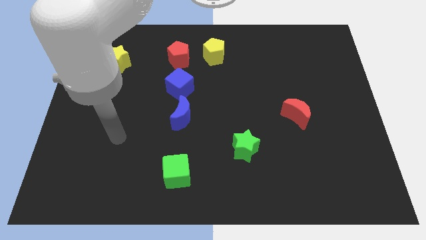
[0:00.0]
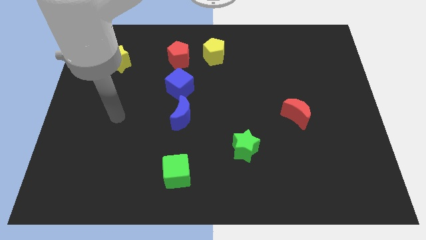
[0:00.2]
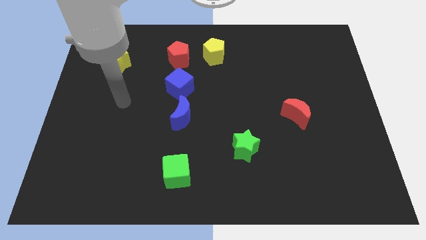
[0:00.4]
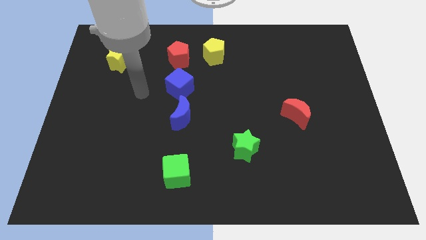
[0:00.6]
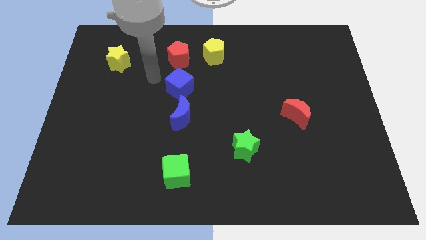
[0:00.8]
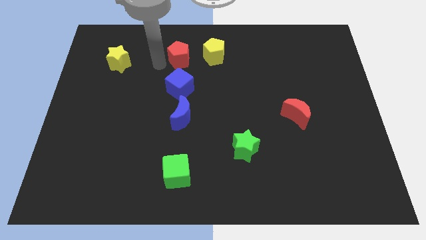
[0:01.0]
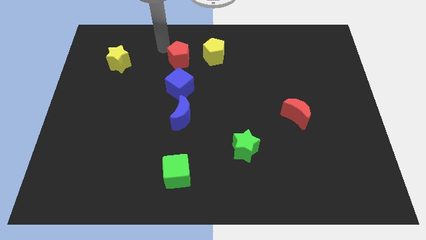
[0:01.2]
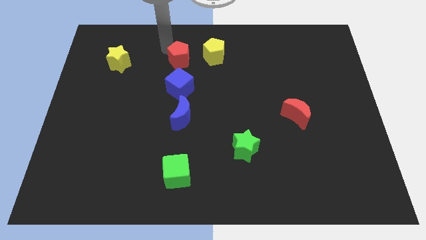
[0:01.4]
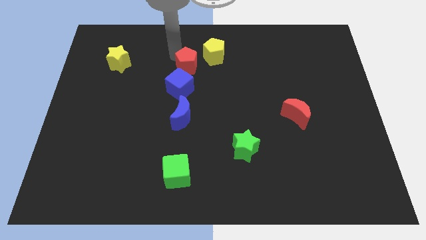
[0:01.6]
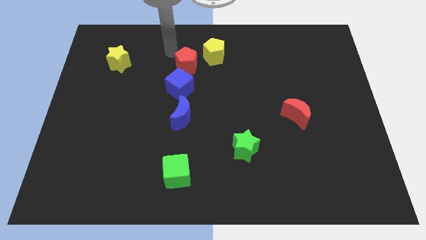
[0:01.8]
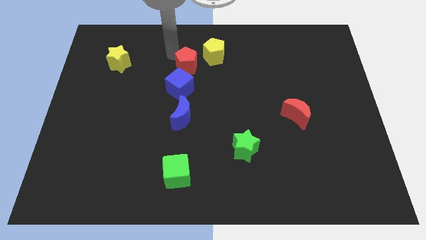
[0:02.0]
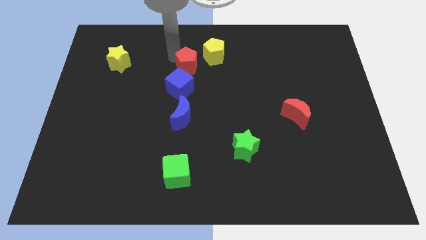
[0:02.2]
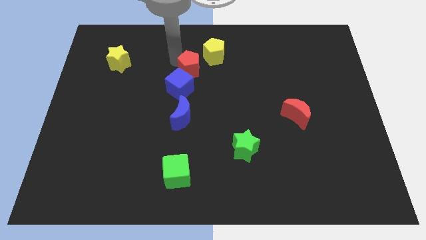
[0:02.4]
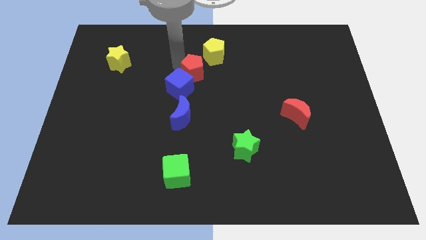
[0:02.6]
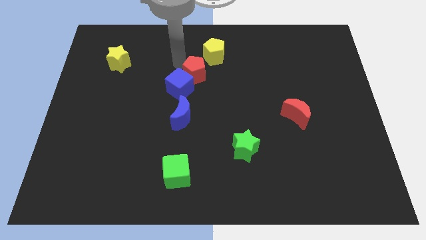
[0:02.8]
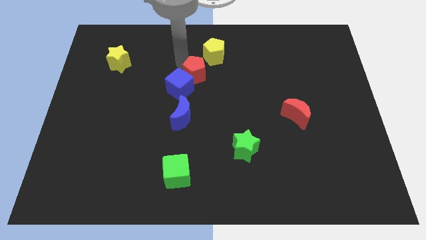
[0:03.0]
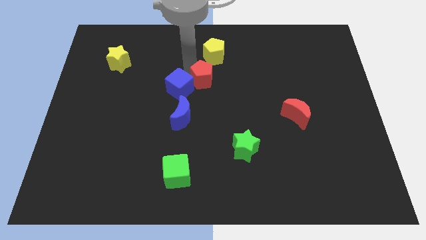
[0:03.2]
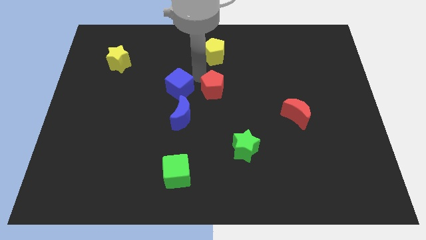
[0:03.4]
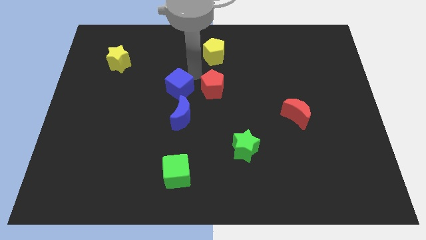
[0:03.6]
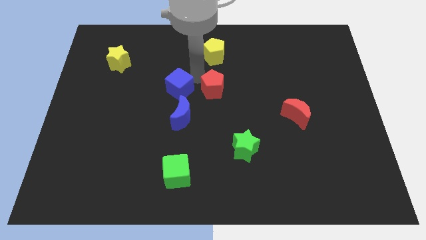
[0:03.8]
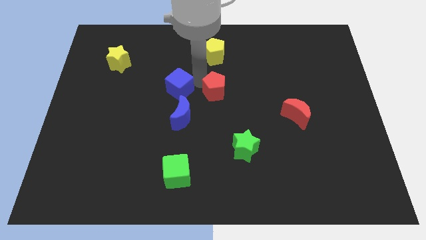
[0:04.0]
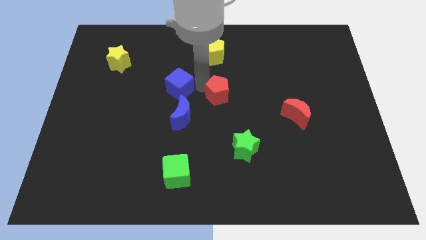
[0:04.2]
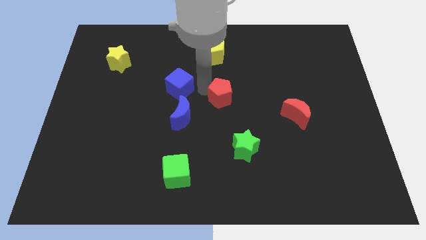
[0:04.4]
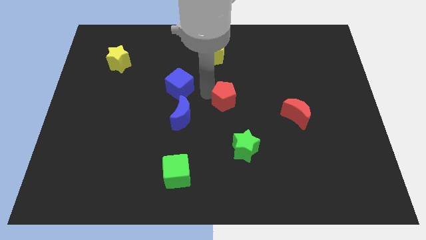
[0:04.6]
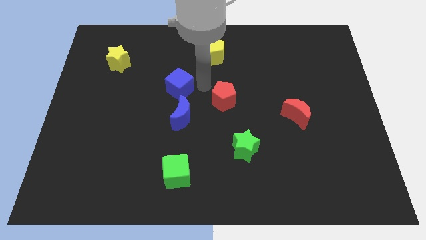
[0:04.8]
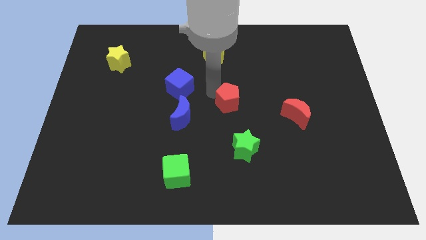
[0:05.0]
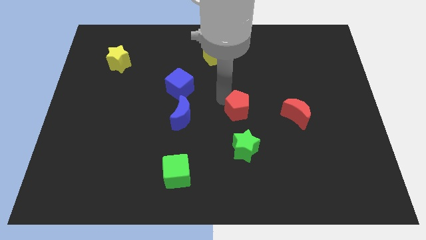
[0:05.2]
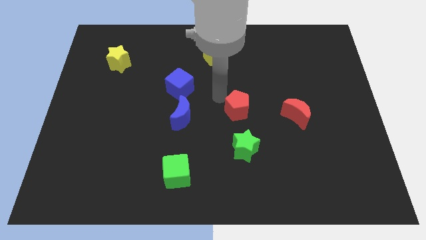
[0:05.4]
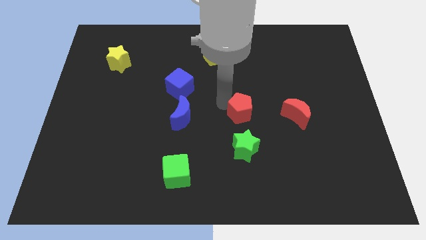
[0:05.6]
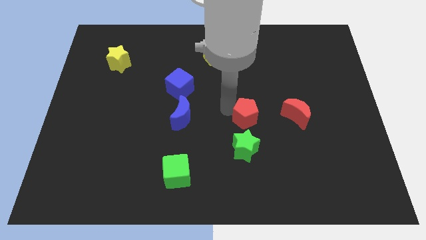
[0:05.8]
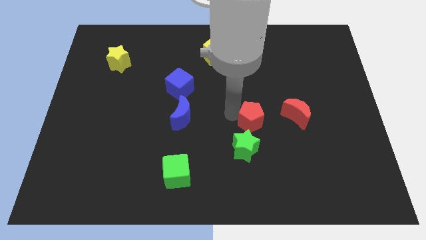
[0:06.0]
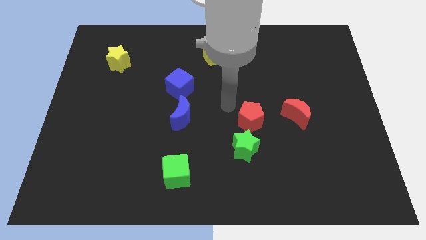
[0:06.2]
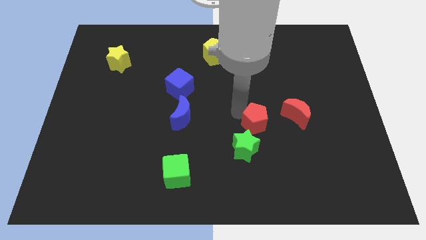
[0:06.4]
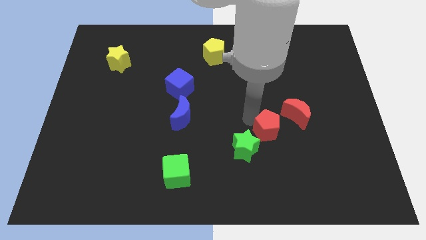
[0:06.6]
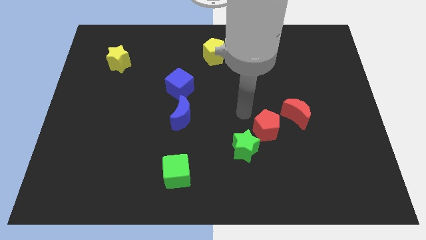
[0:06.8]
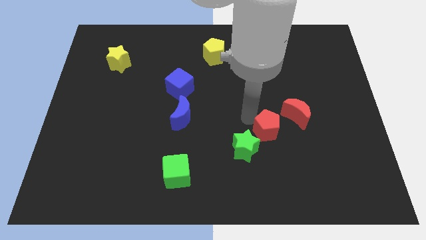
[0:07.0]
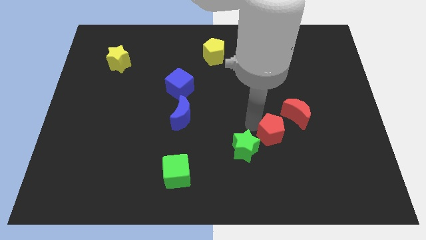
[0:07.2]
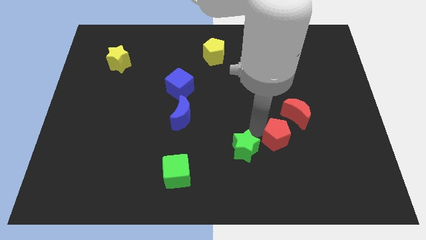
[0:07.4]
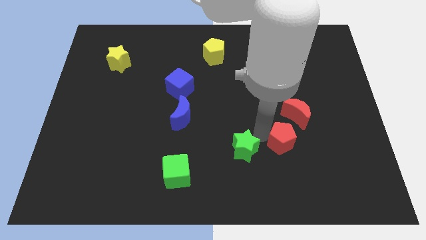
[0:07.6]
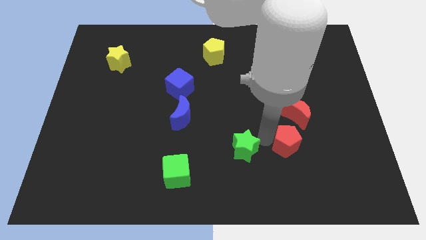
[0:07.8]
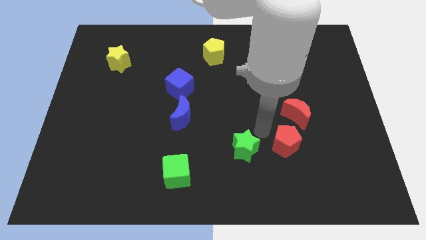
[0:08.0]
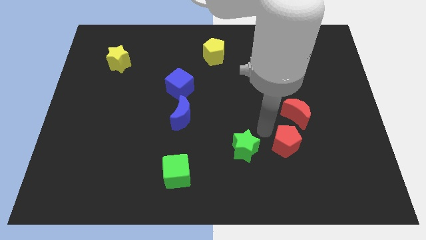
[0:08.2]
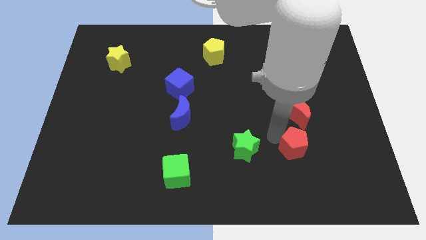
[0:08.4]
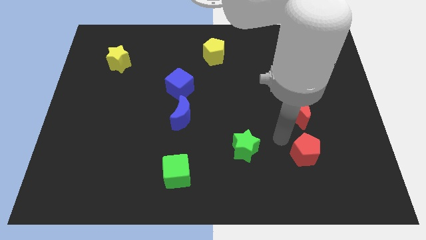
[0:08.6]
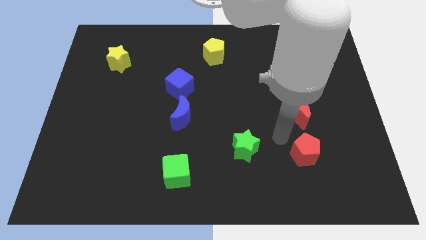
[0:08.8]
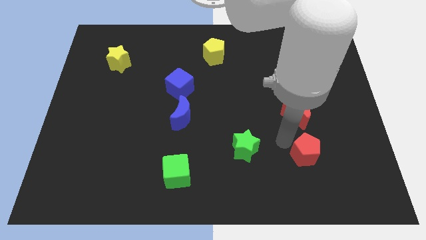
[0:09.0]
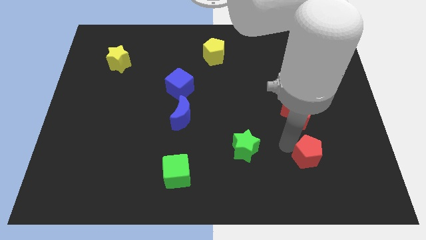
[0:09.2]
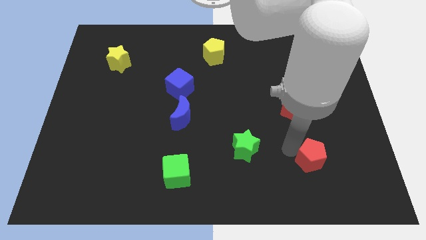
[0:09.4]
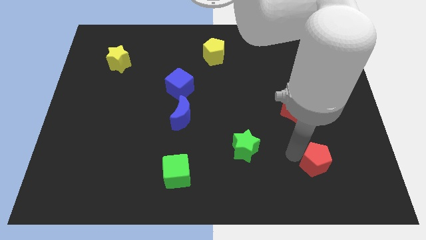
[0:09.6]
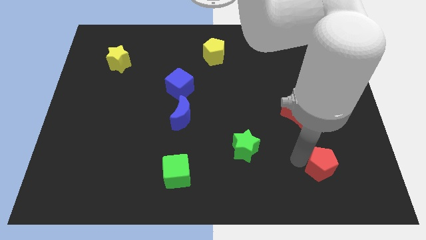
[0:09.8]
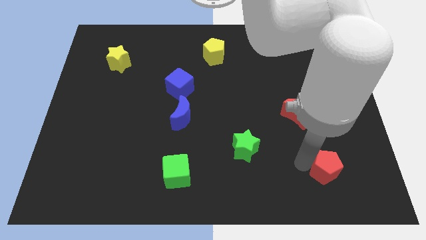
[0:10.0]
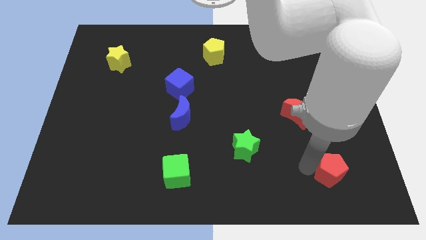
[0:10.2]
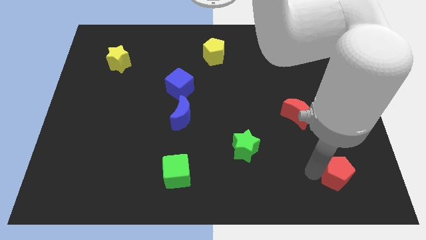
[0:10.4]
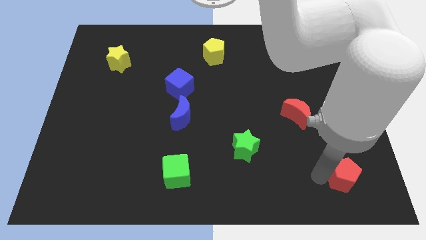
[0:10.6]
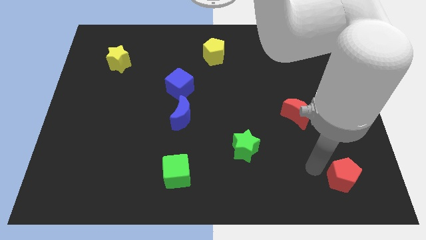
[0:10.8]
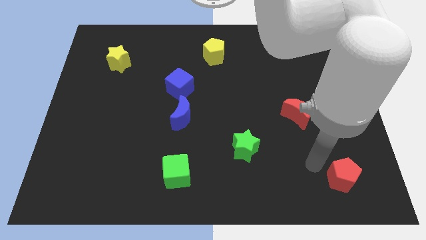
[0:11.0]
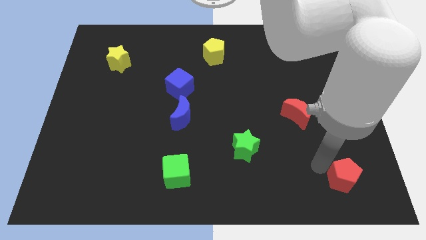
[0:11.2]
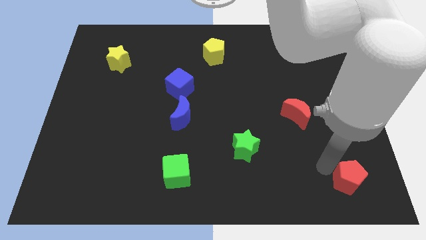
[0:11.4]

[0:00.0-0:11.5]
put the red pentagon to the bottom right

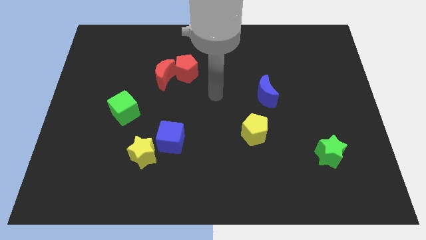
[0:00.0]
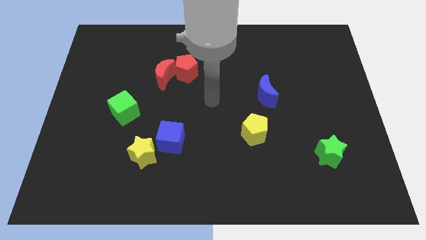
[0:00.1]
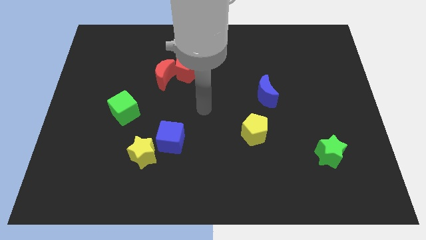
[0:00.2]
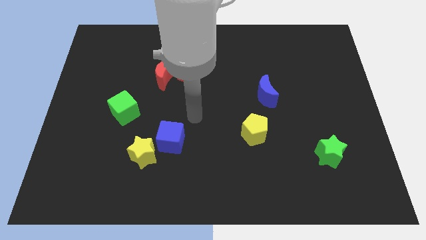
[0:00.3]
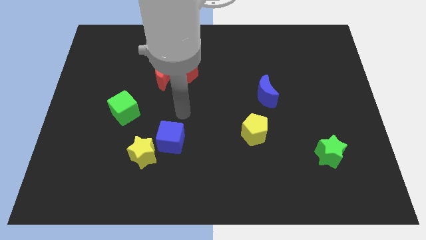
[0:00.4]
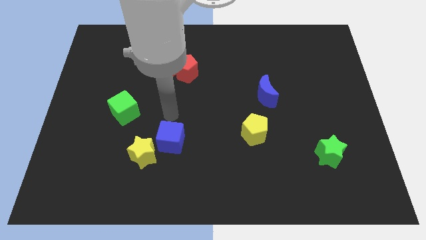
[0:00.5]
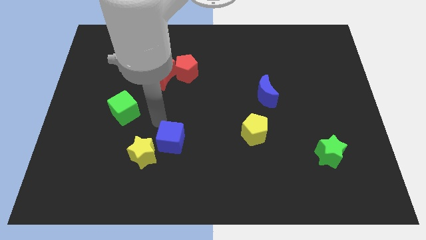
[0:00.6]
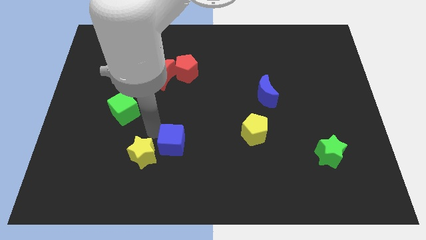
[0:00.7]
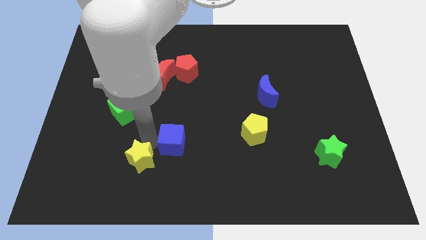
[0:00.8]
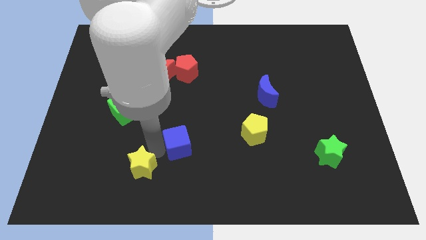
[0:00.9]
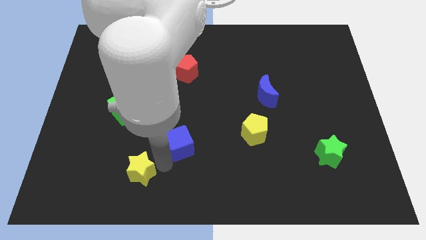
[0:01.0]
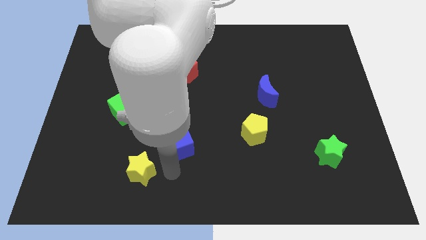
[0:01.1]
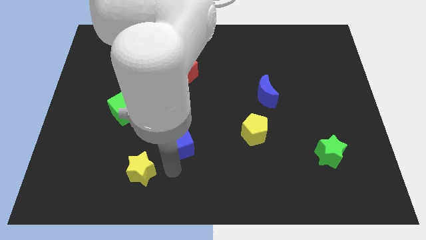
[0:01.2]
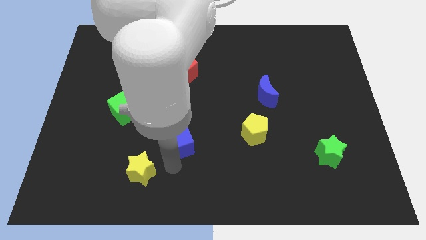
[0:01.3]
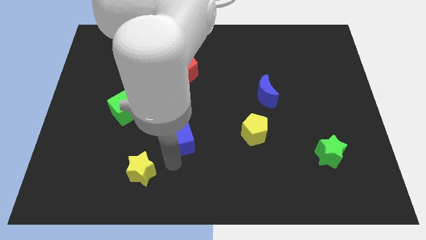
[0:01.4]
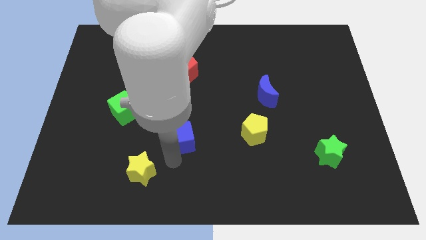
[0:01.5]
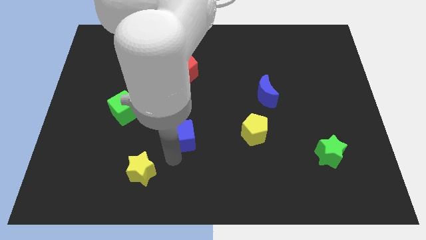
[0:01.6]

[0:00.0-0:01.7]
push the blue cube to the center of the board

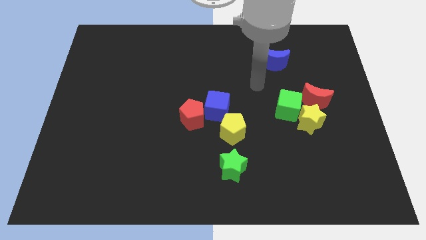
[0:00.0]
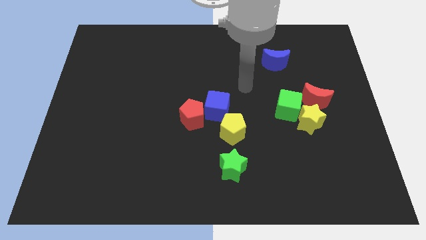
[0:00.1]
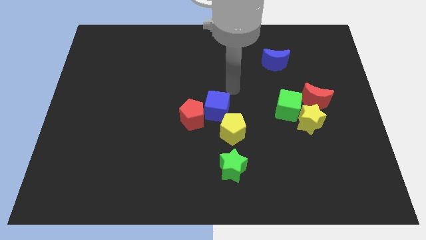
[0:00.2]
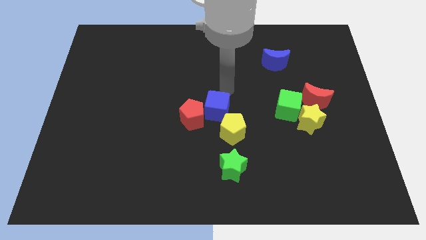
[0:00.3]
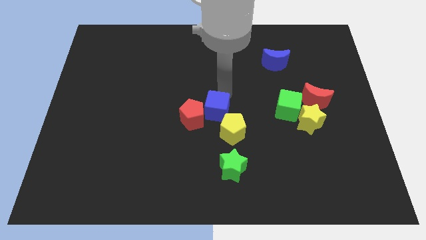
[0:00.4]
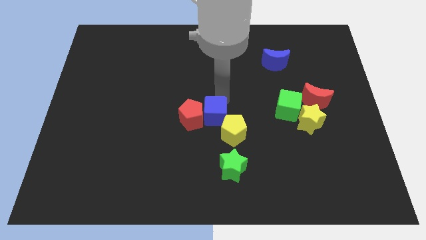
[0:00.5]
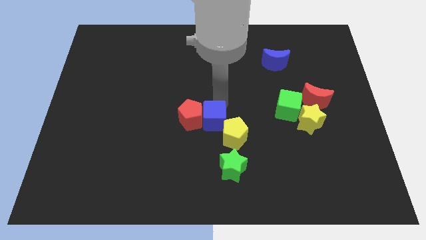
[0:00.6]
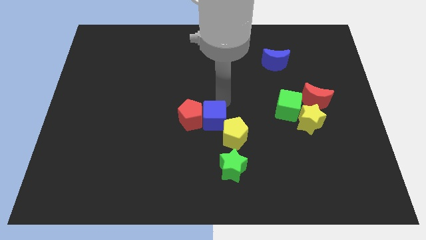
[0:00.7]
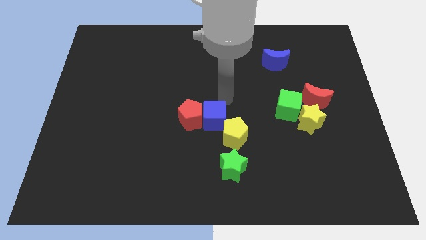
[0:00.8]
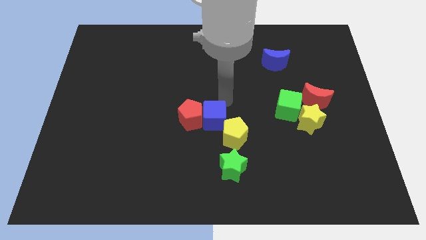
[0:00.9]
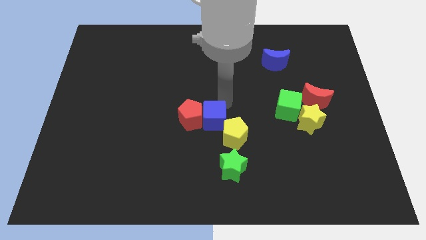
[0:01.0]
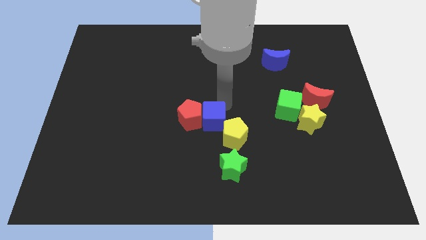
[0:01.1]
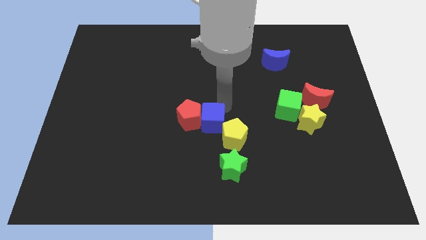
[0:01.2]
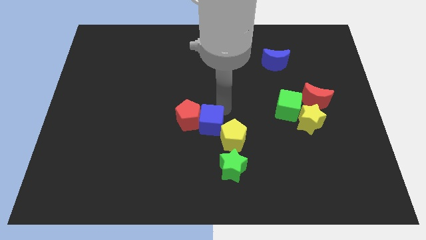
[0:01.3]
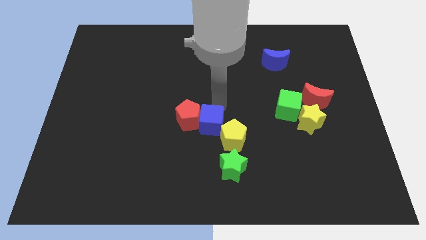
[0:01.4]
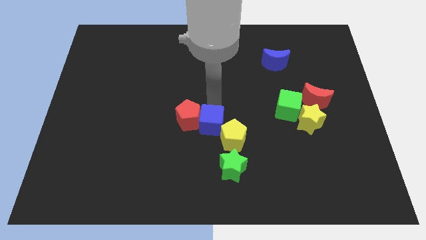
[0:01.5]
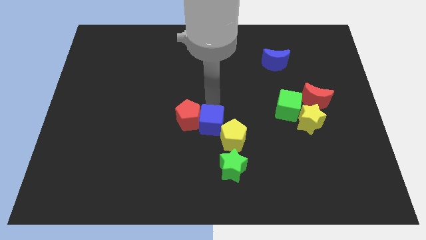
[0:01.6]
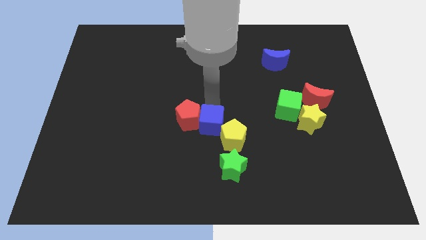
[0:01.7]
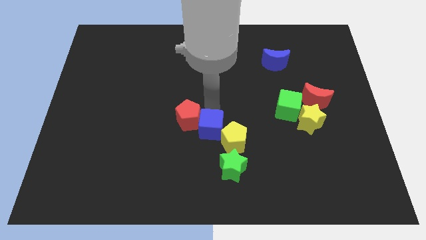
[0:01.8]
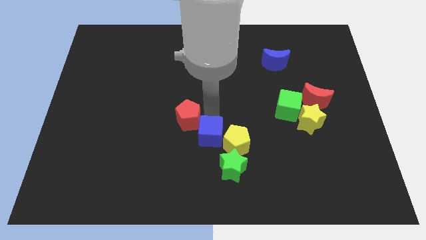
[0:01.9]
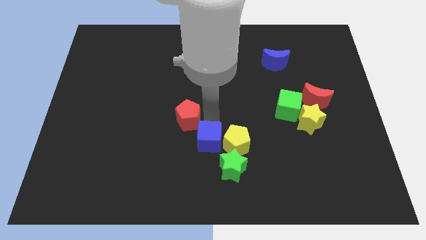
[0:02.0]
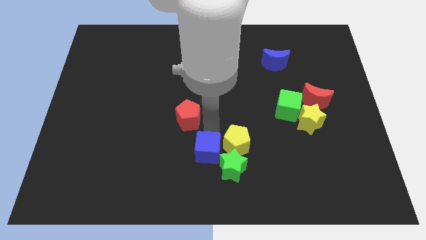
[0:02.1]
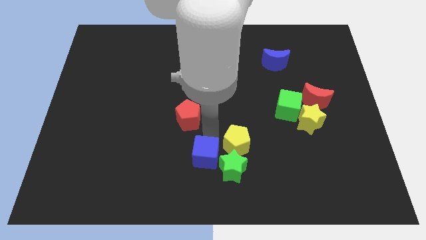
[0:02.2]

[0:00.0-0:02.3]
slide the blue cube to the bottom side
